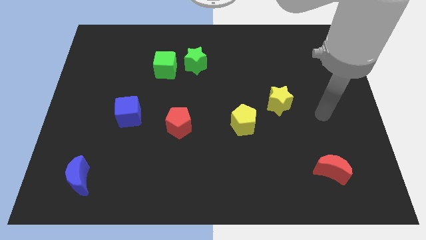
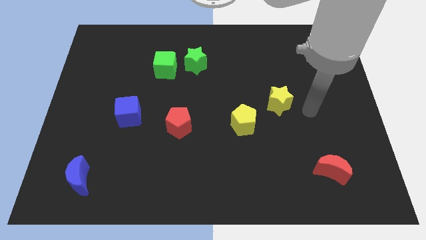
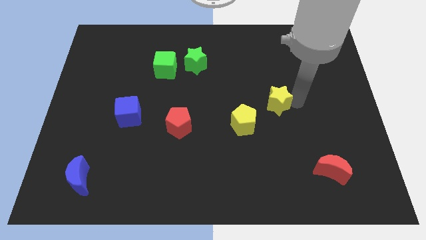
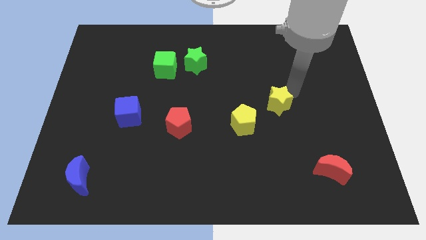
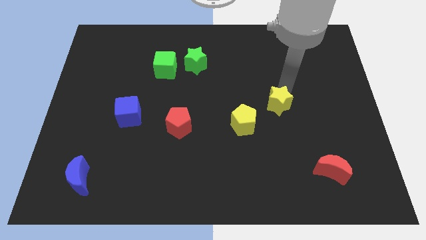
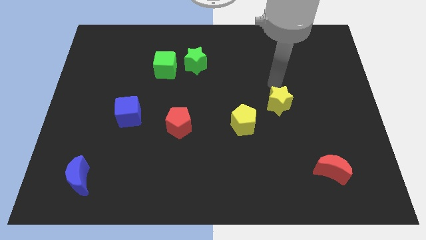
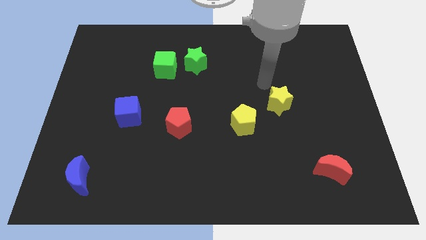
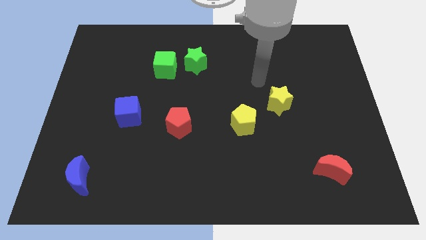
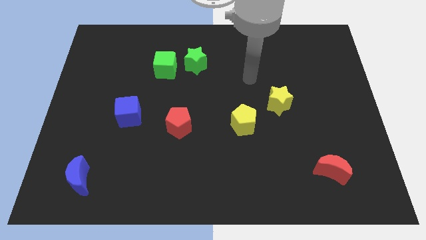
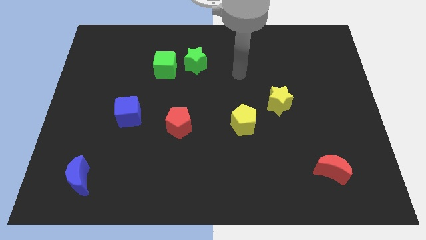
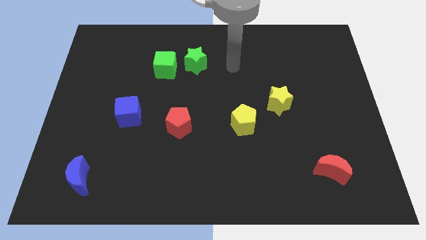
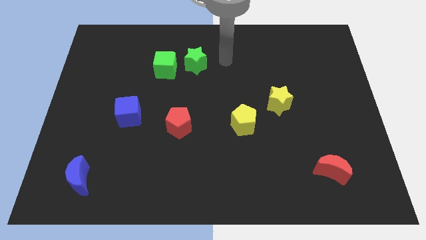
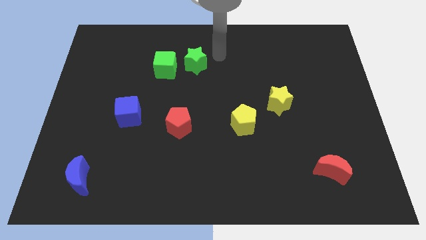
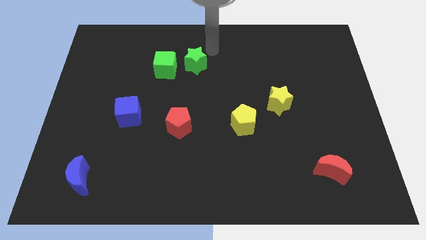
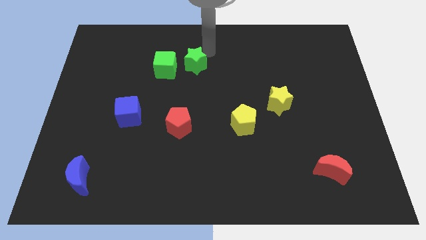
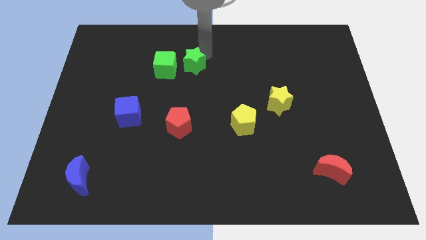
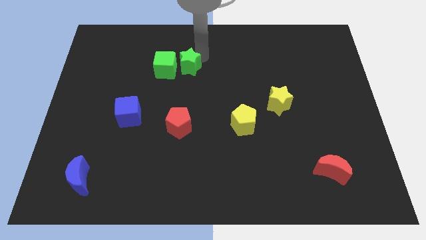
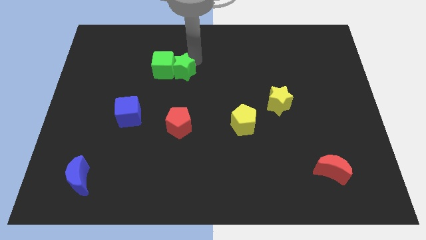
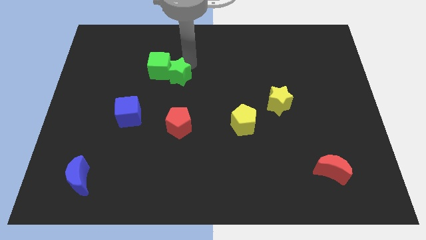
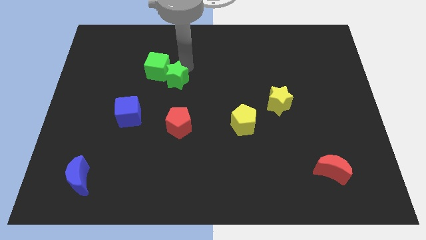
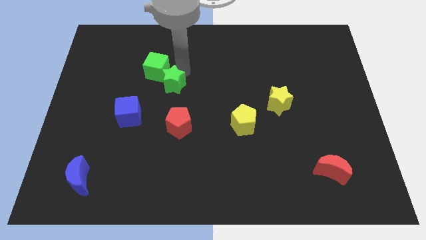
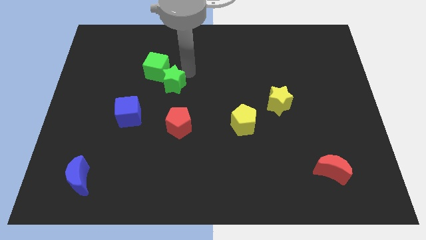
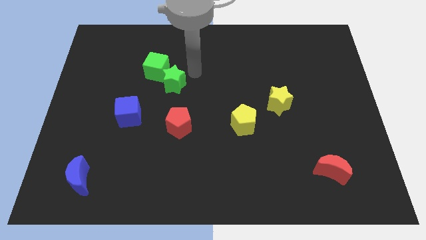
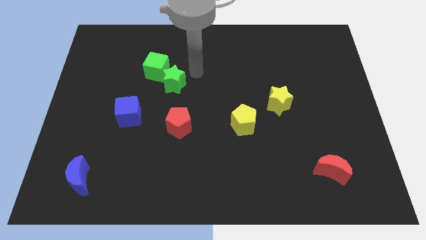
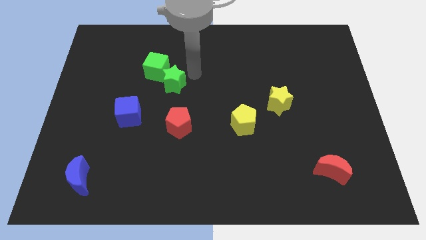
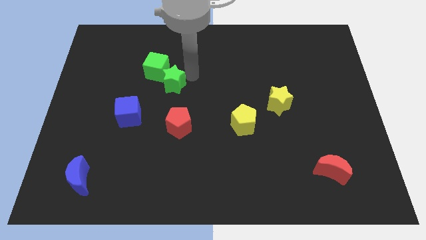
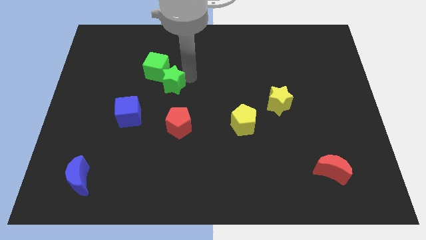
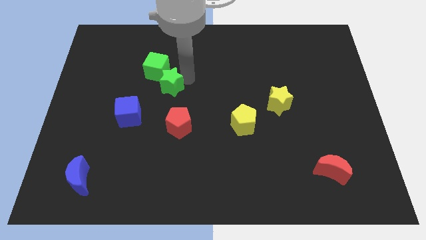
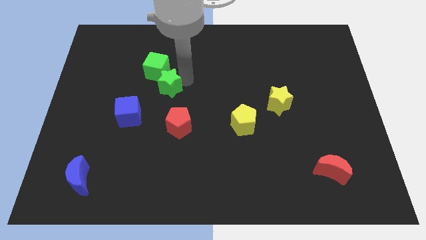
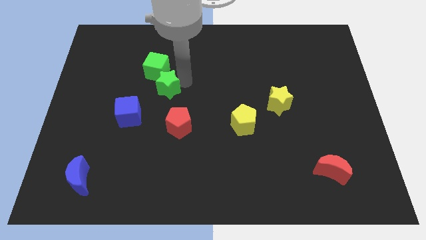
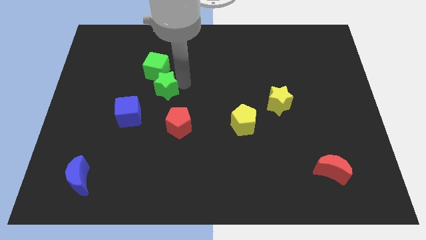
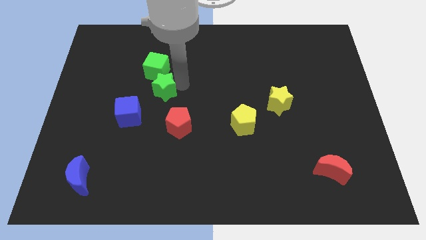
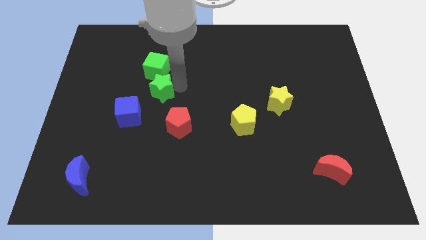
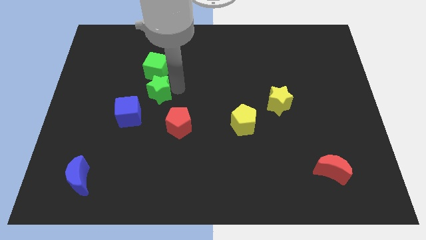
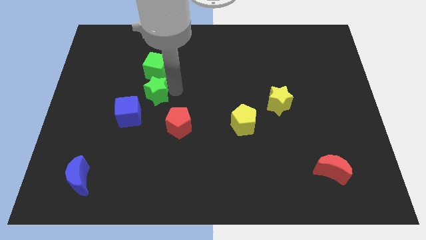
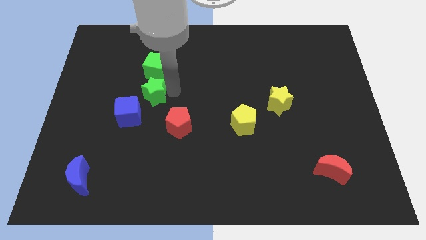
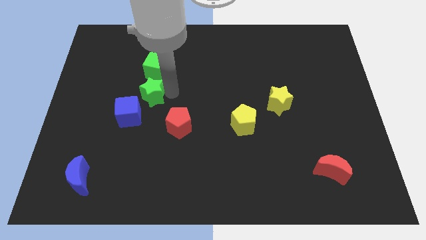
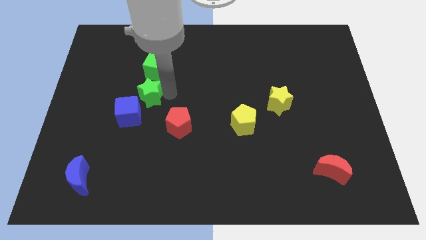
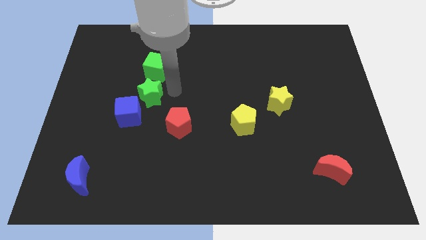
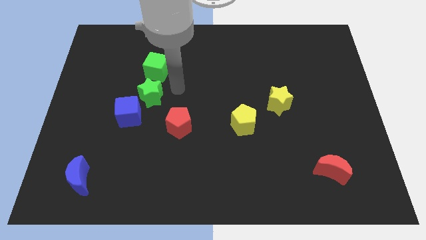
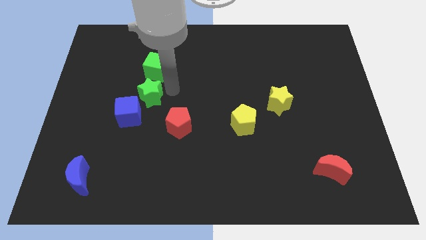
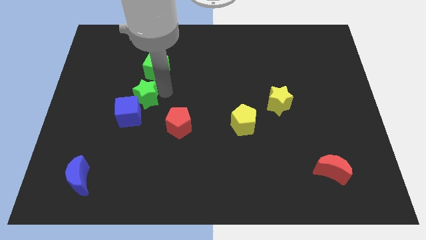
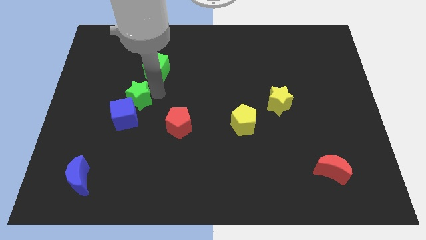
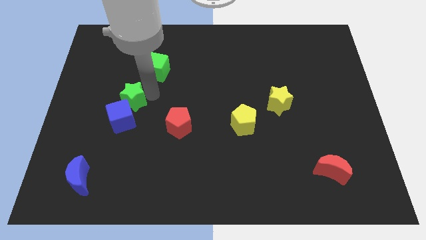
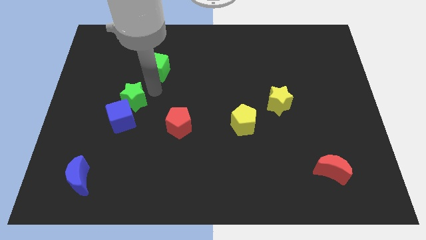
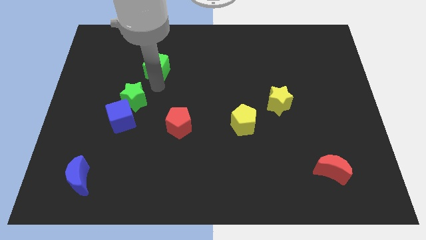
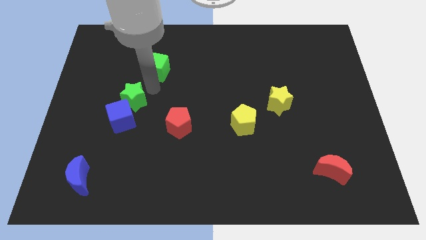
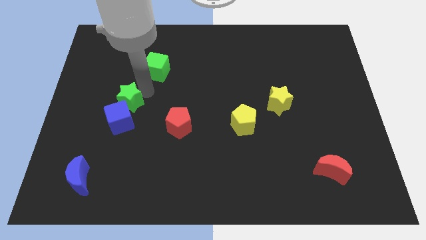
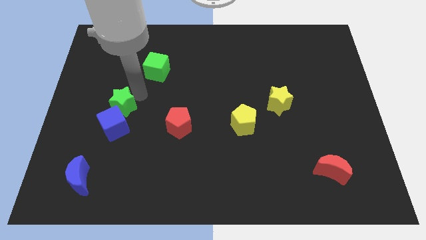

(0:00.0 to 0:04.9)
slide the green star diagonally down and to the left

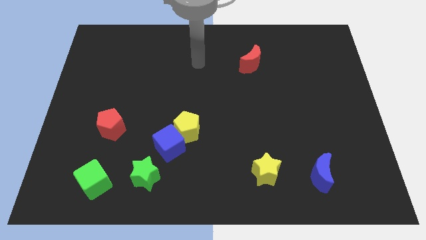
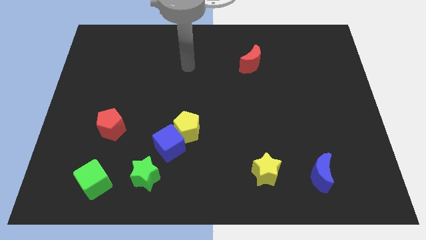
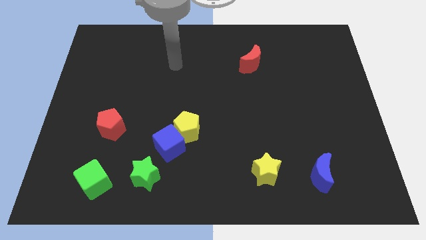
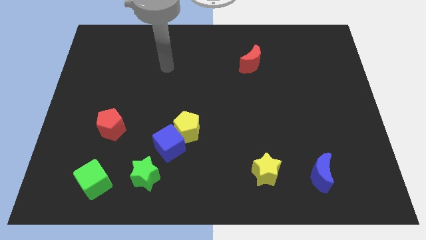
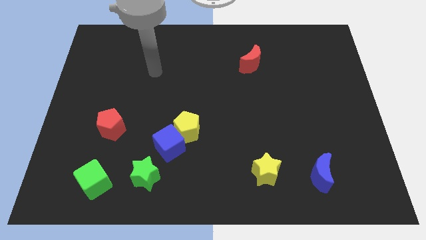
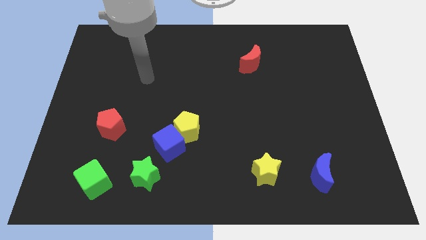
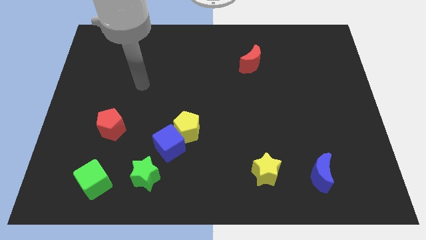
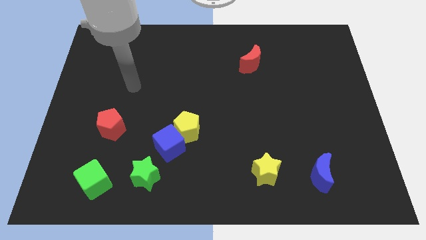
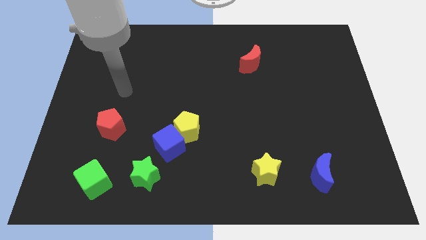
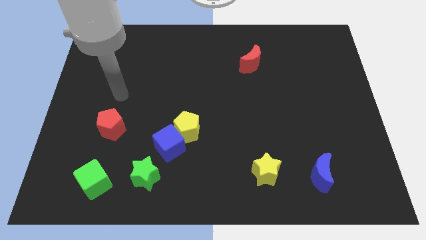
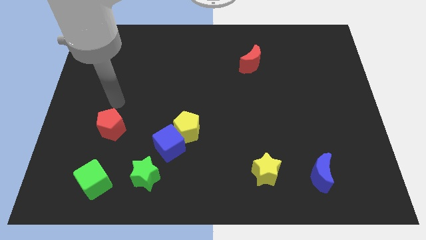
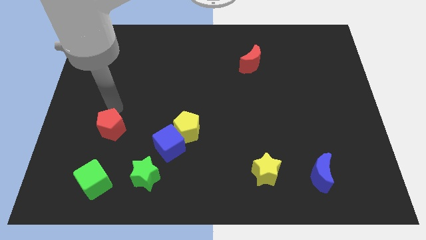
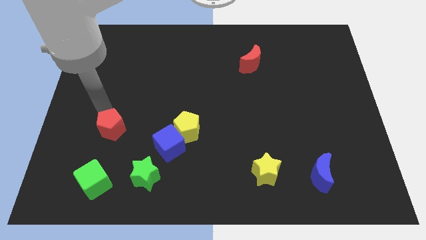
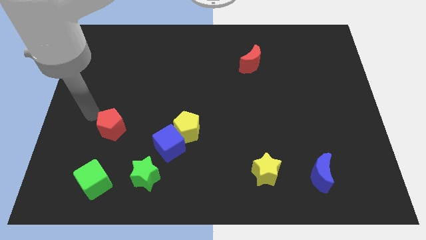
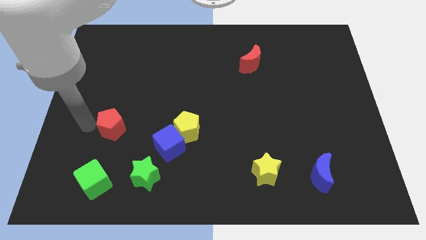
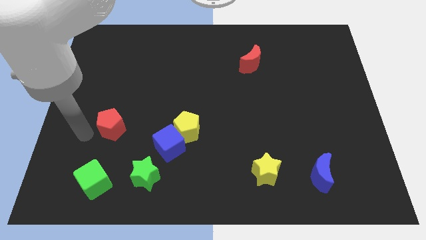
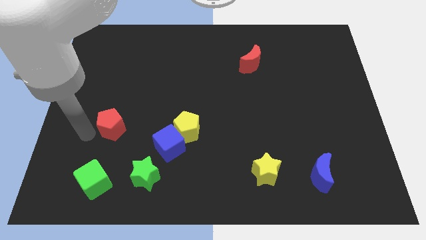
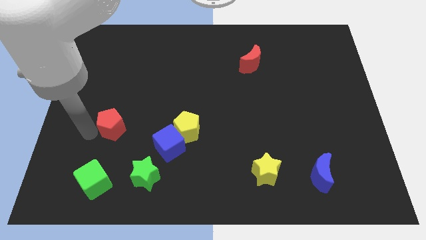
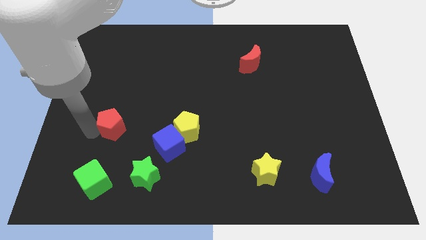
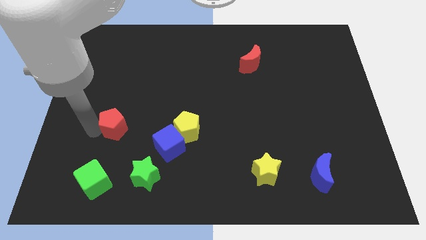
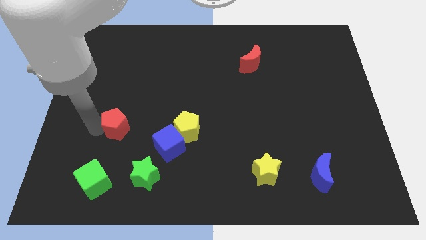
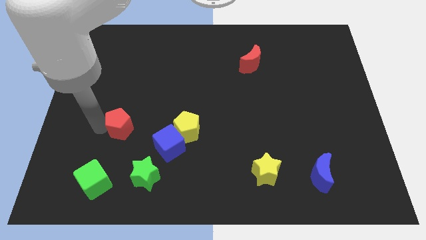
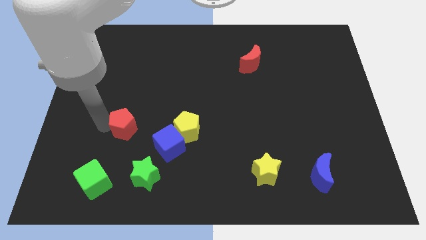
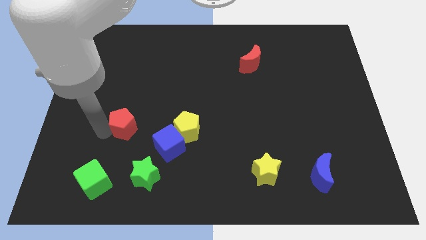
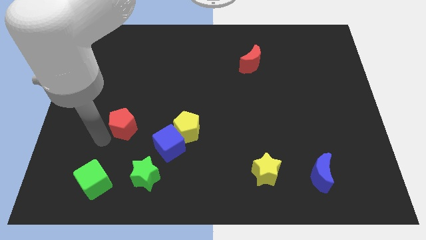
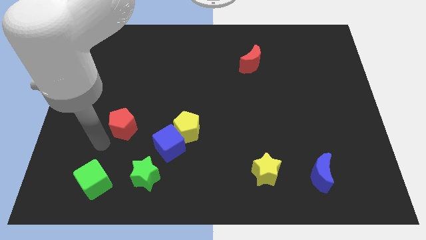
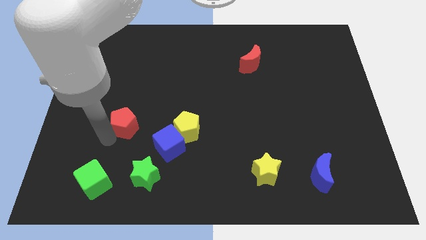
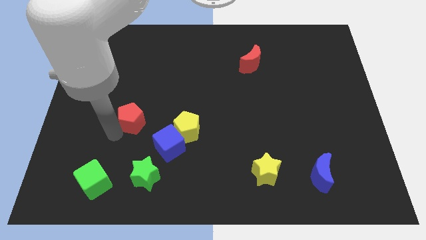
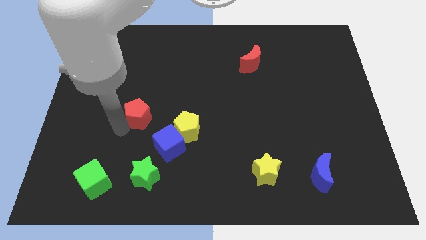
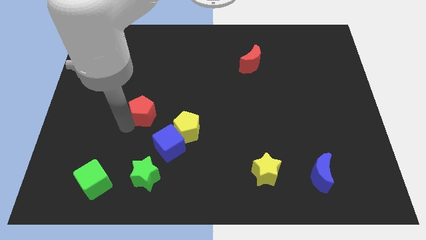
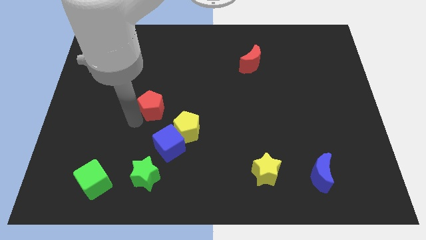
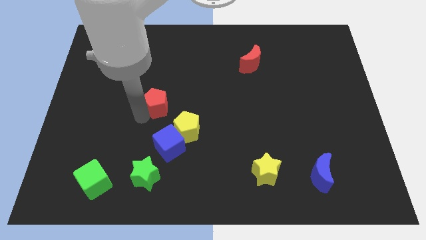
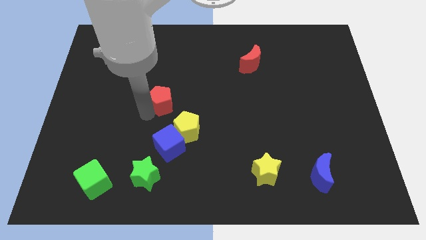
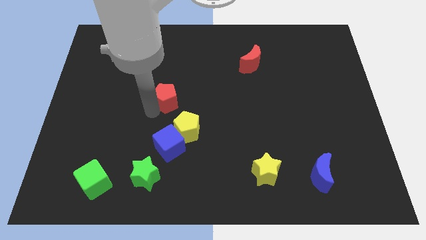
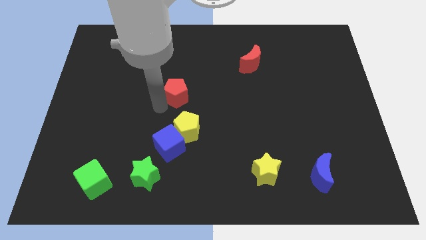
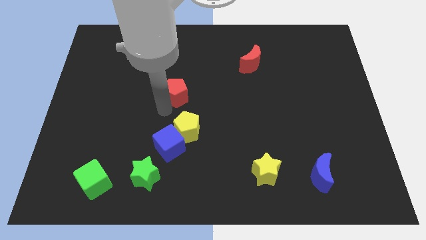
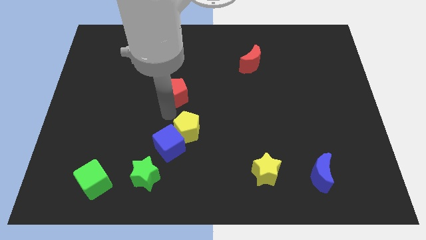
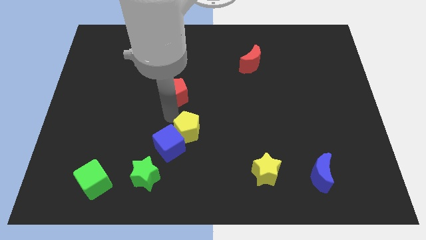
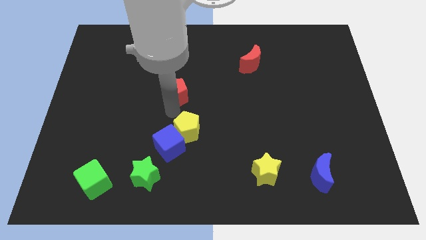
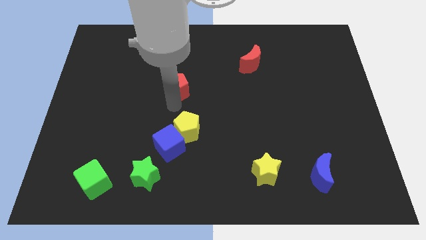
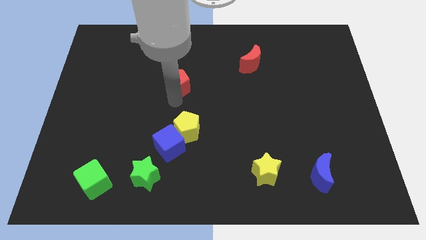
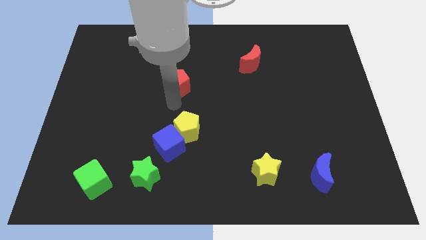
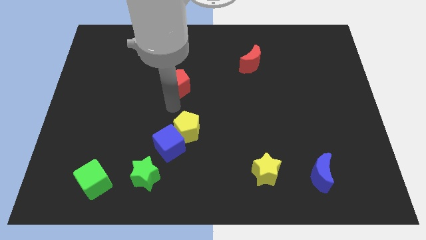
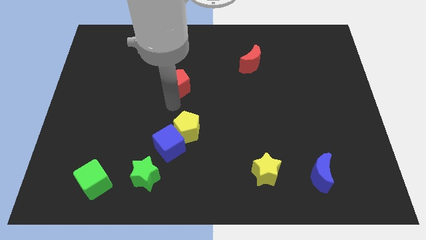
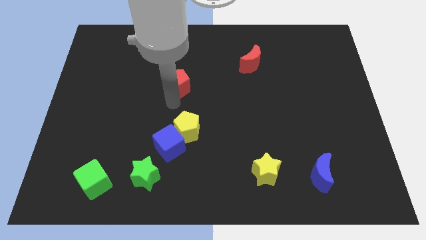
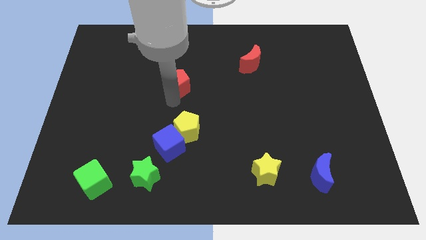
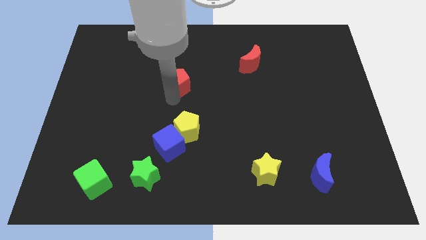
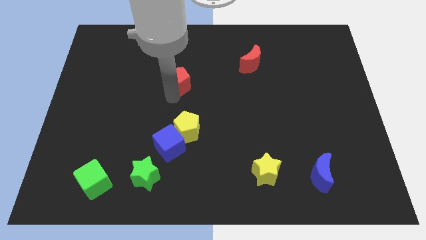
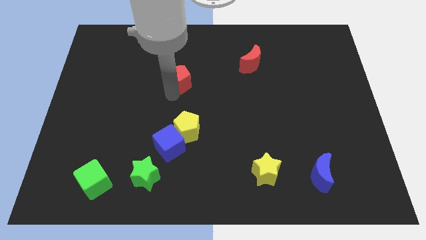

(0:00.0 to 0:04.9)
slide the red pentagon diagonally upwards and right
